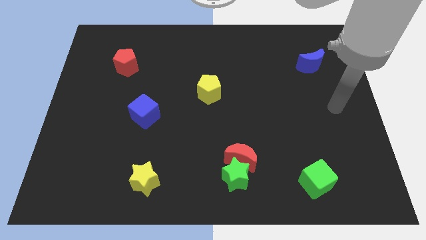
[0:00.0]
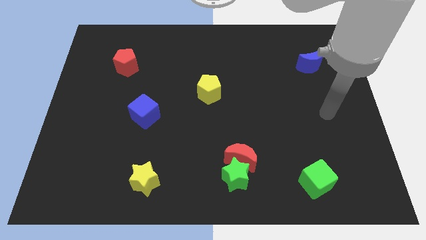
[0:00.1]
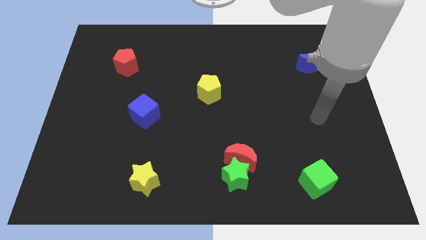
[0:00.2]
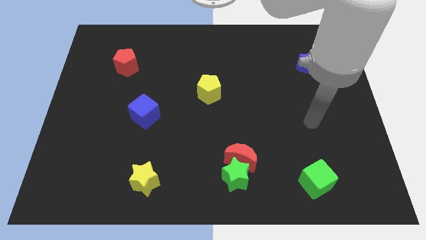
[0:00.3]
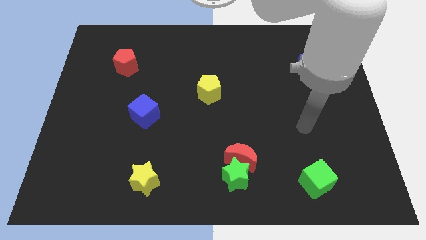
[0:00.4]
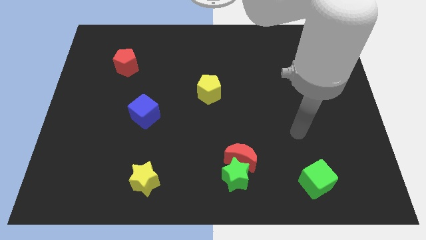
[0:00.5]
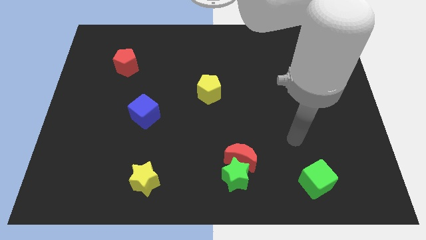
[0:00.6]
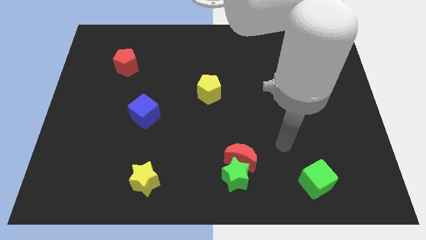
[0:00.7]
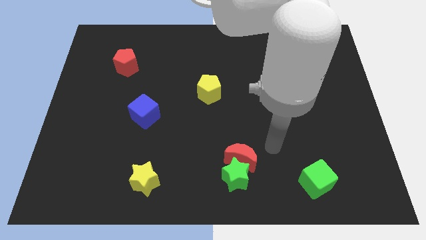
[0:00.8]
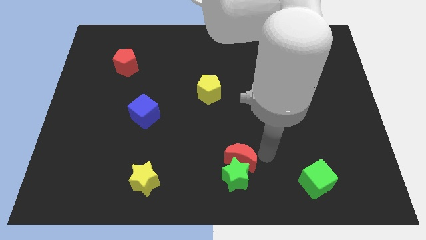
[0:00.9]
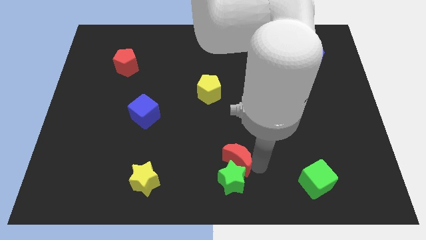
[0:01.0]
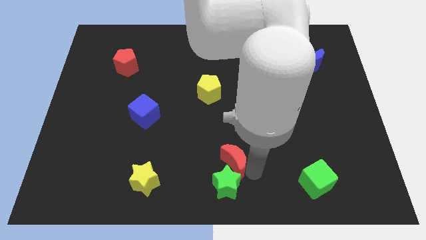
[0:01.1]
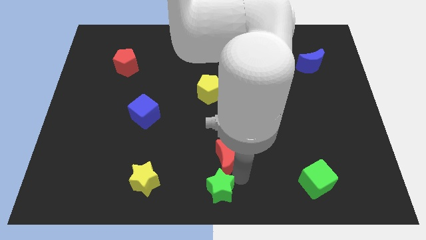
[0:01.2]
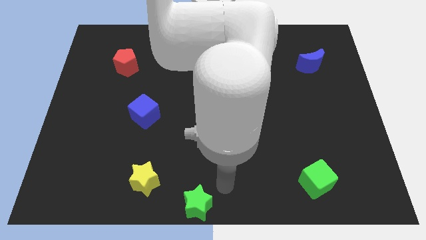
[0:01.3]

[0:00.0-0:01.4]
move the red moon away from the green star

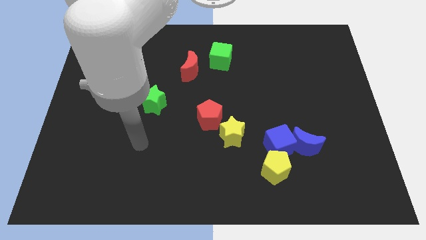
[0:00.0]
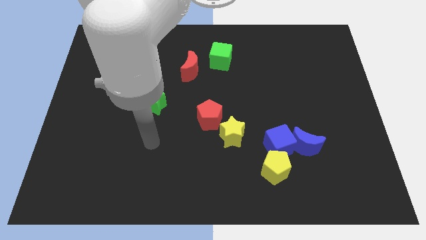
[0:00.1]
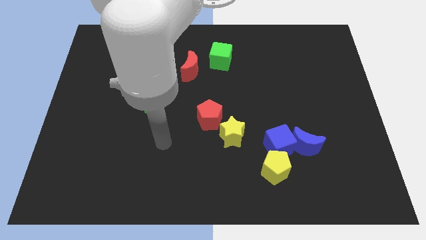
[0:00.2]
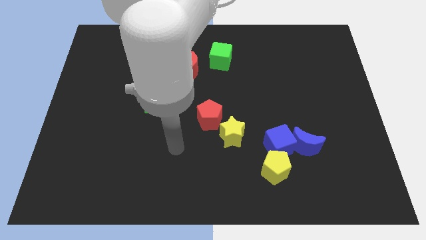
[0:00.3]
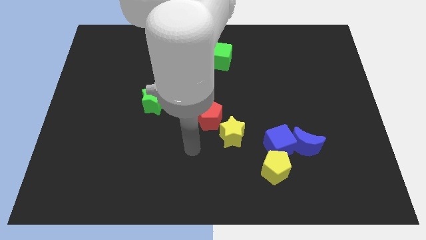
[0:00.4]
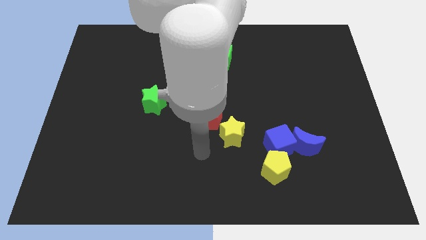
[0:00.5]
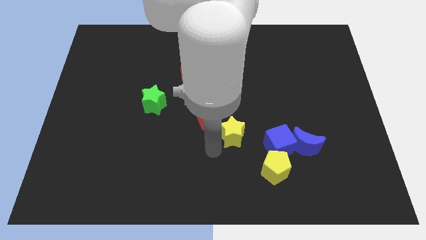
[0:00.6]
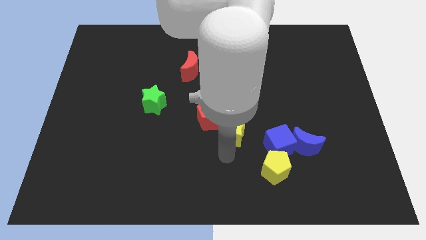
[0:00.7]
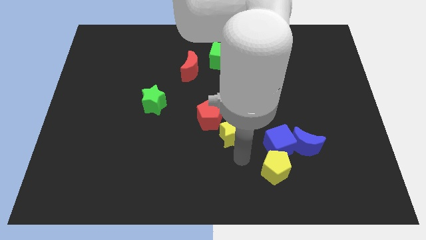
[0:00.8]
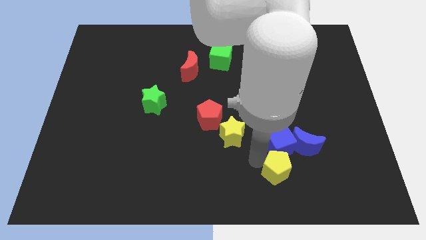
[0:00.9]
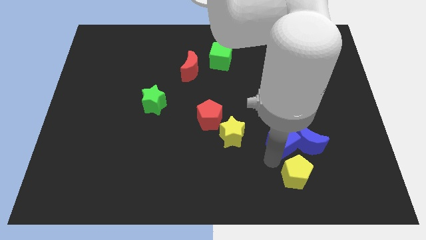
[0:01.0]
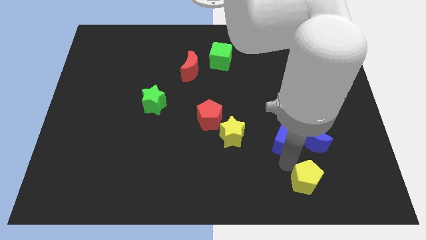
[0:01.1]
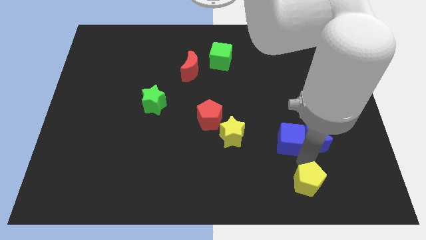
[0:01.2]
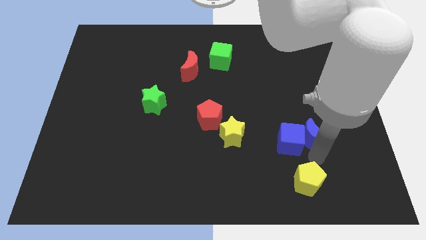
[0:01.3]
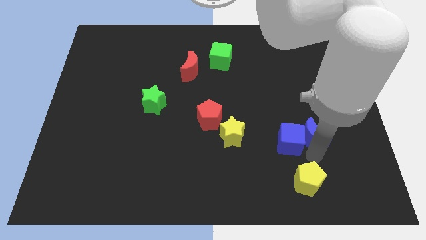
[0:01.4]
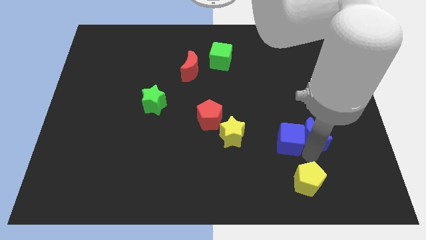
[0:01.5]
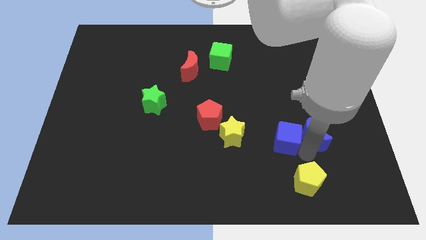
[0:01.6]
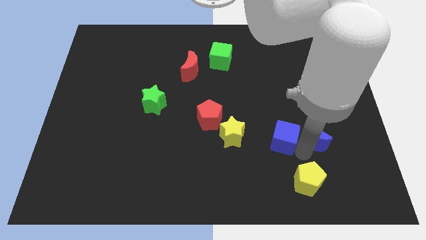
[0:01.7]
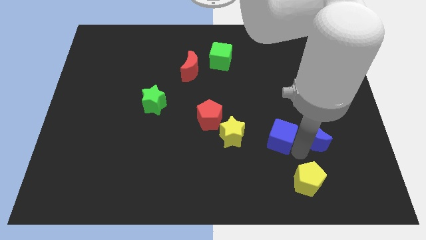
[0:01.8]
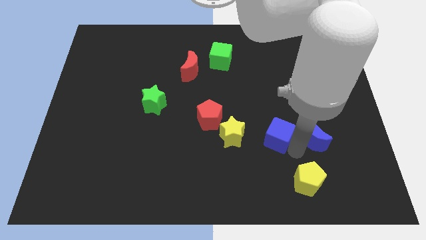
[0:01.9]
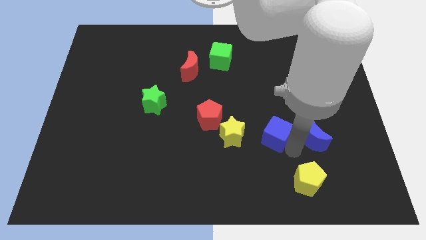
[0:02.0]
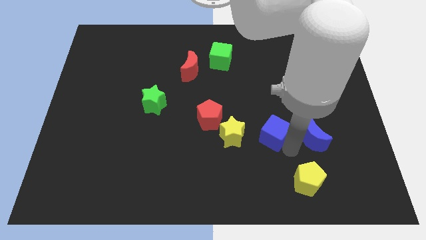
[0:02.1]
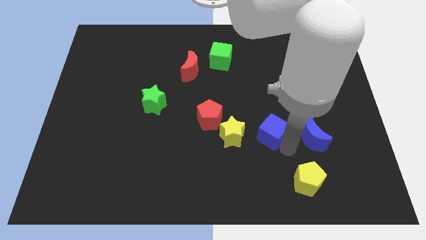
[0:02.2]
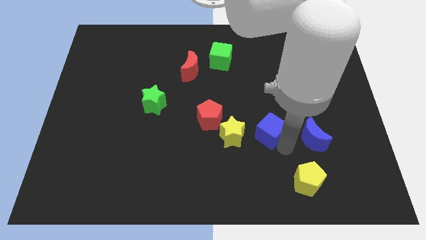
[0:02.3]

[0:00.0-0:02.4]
separate the blue cube from the blue moon and yellow pentagon

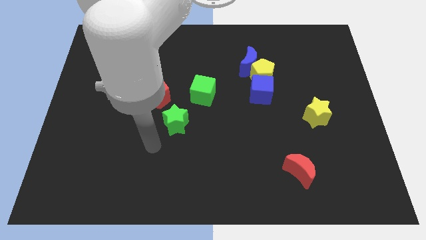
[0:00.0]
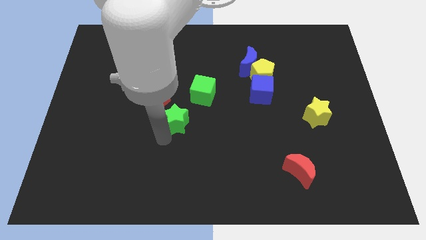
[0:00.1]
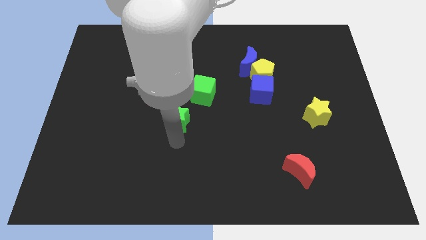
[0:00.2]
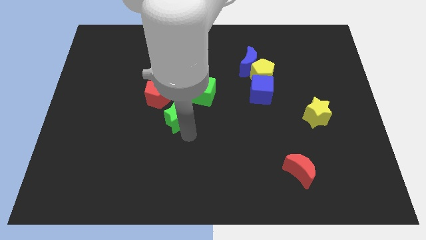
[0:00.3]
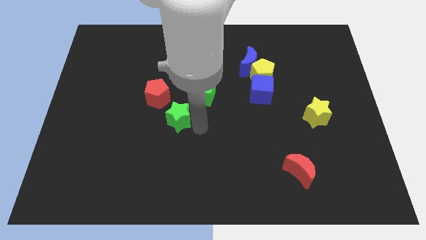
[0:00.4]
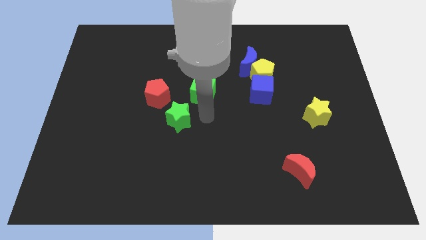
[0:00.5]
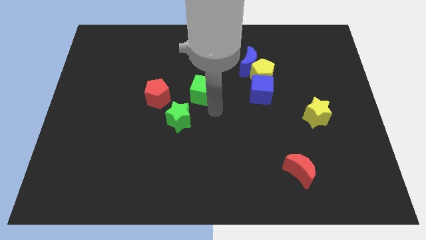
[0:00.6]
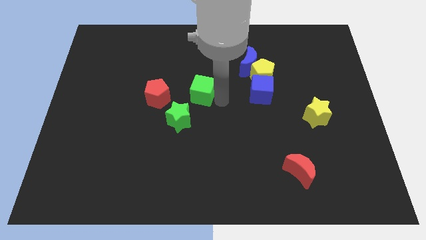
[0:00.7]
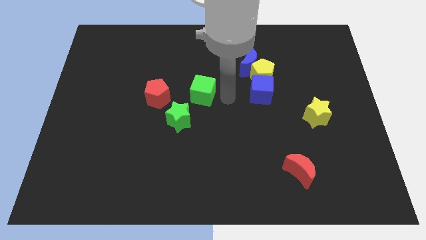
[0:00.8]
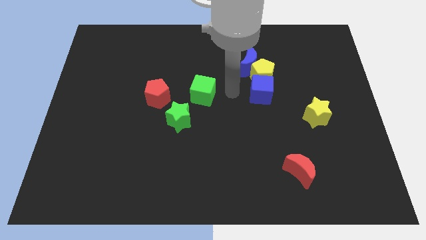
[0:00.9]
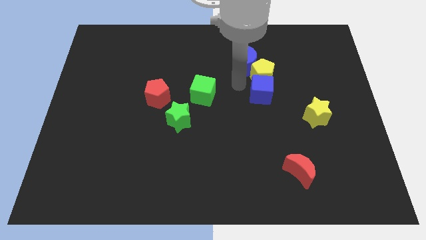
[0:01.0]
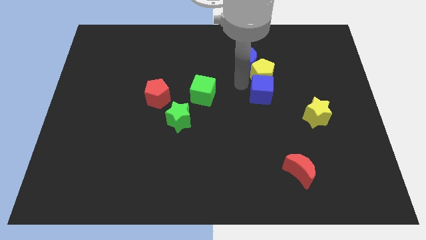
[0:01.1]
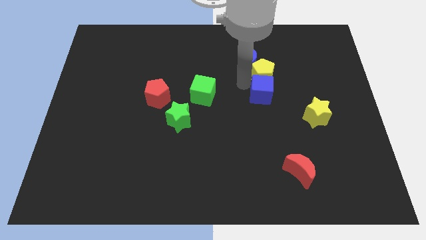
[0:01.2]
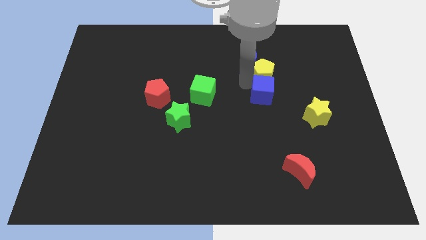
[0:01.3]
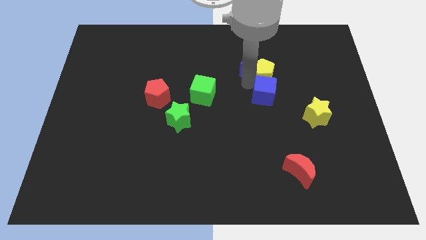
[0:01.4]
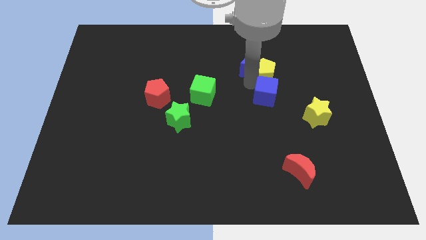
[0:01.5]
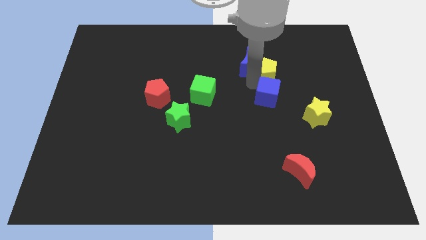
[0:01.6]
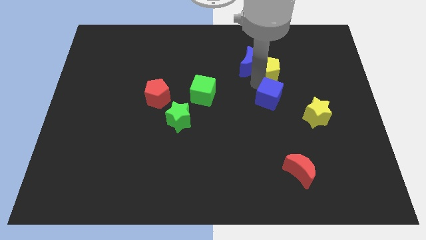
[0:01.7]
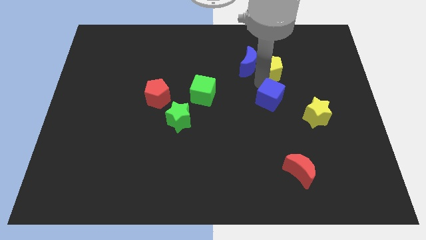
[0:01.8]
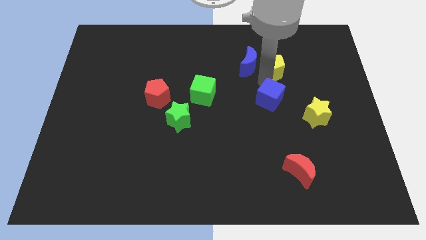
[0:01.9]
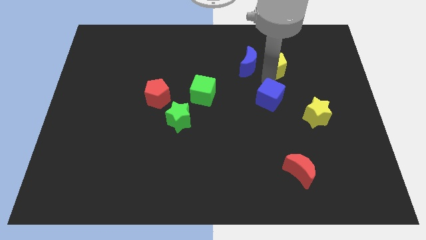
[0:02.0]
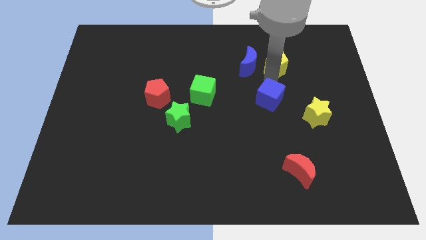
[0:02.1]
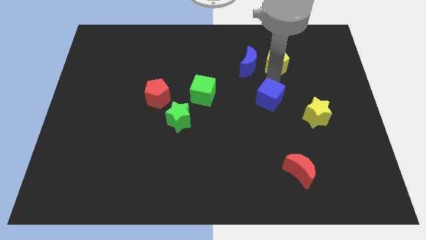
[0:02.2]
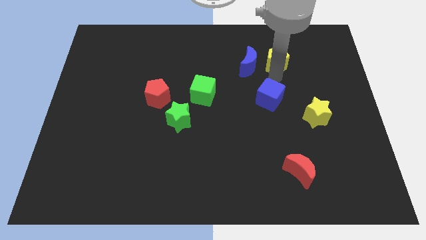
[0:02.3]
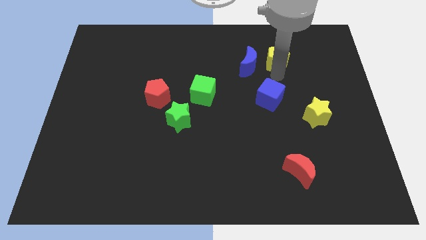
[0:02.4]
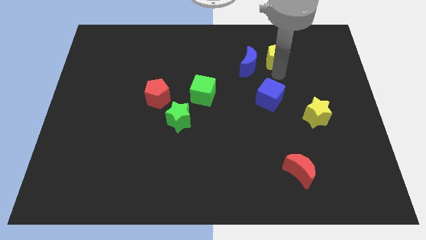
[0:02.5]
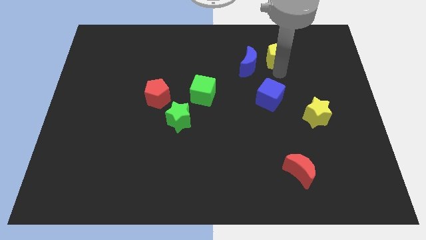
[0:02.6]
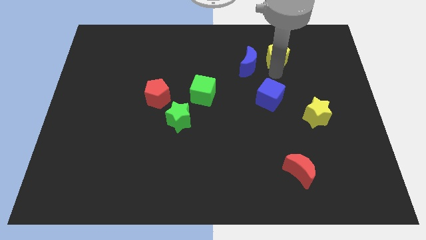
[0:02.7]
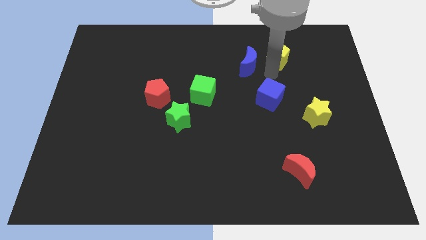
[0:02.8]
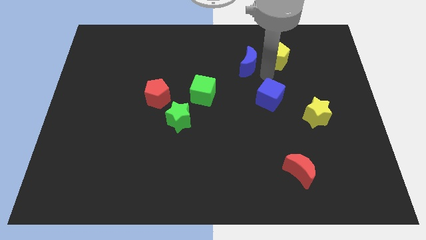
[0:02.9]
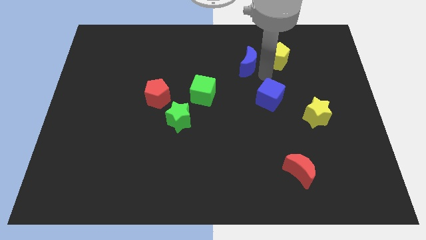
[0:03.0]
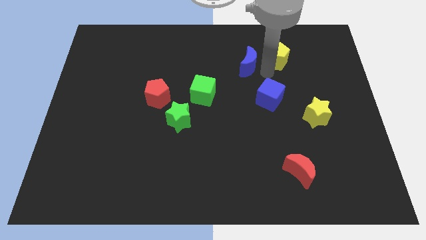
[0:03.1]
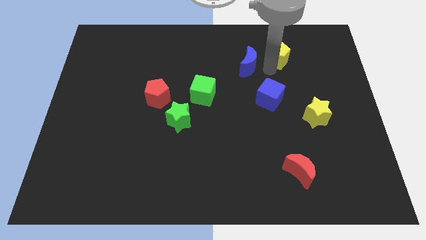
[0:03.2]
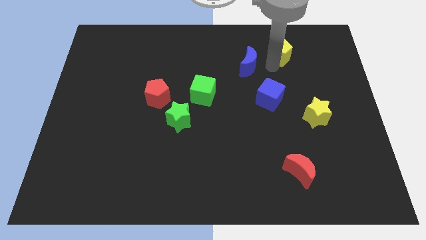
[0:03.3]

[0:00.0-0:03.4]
move the yellow pentagon away from the blue moon and blue cube

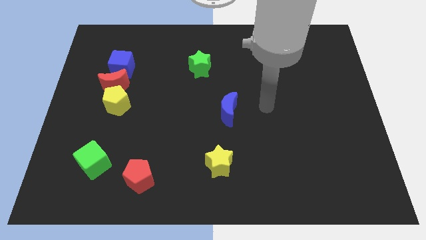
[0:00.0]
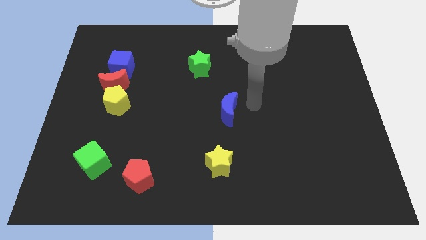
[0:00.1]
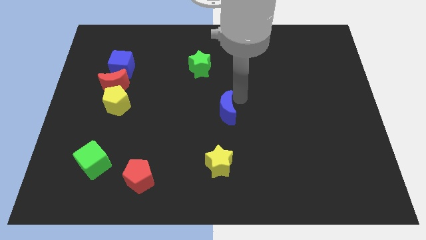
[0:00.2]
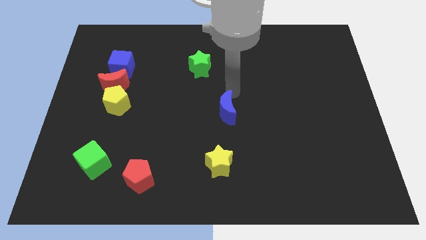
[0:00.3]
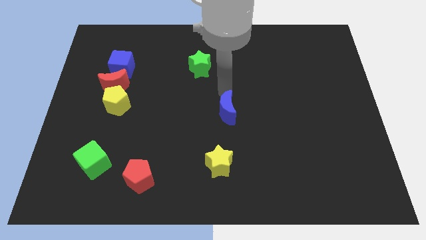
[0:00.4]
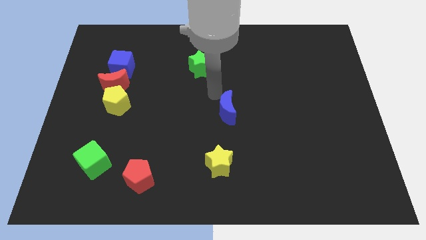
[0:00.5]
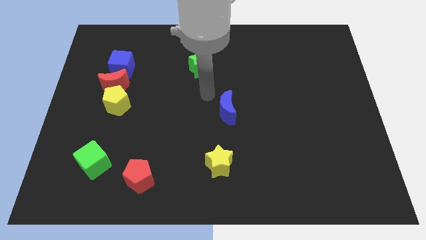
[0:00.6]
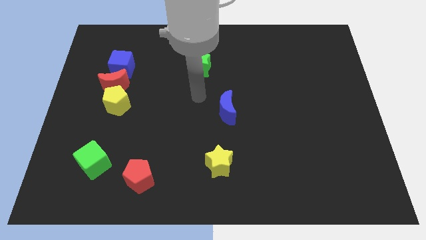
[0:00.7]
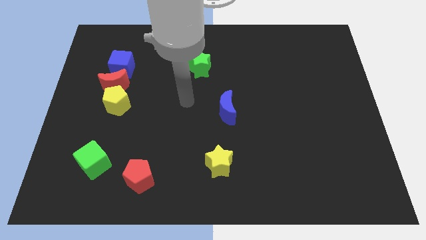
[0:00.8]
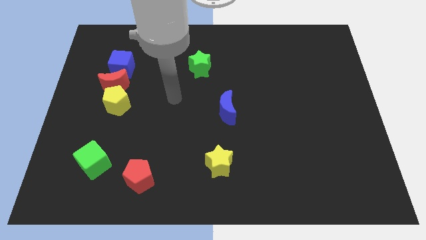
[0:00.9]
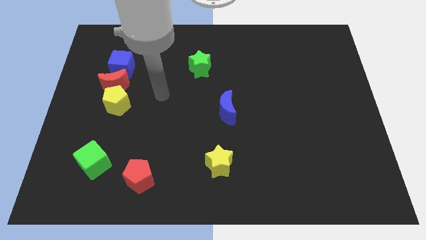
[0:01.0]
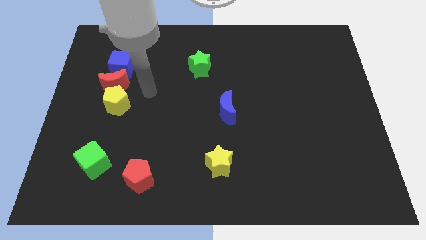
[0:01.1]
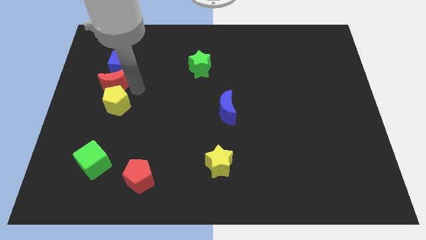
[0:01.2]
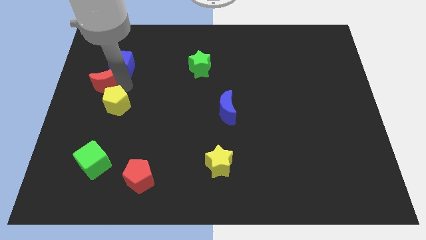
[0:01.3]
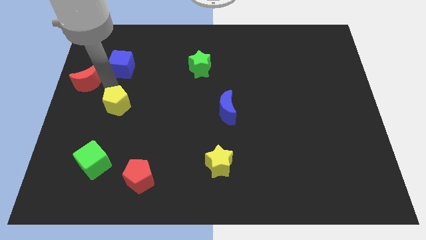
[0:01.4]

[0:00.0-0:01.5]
separate the yellow pentagon from the red moon

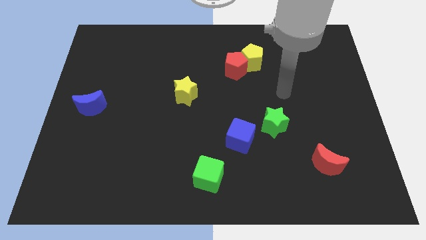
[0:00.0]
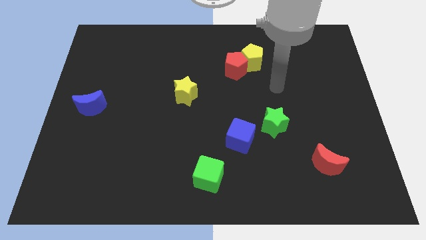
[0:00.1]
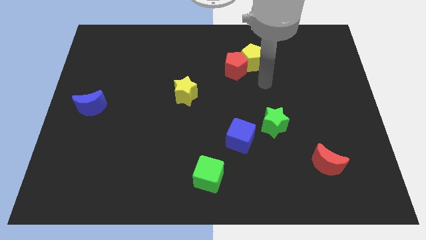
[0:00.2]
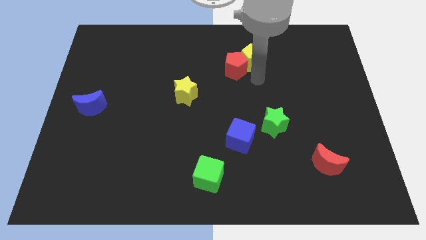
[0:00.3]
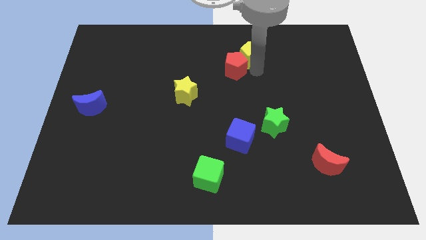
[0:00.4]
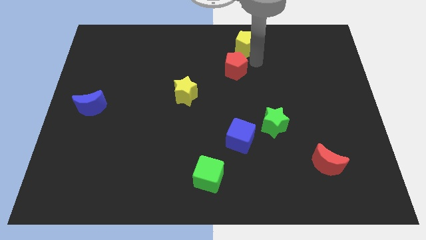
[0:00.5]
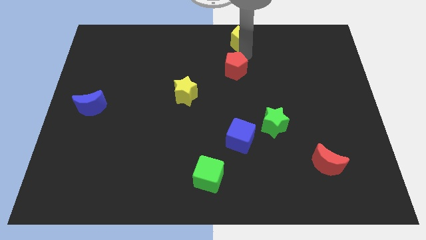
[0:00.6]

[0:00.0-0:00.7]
separate the red pentagon from the yellow pentagon
